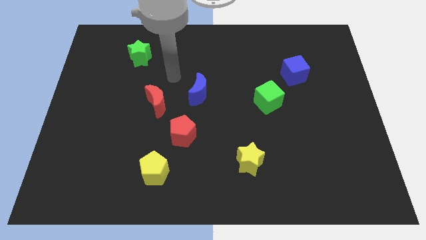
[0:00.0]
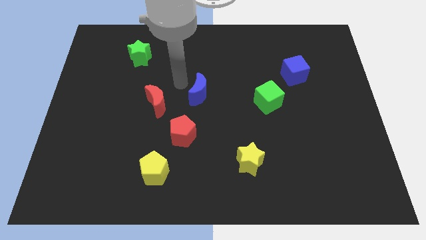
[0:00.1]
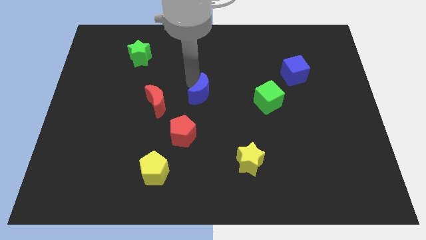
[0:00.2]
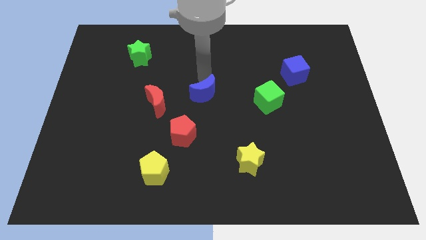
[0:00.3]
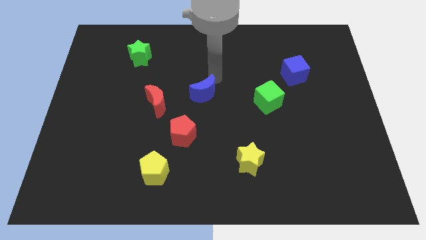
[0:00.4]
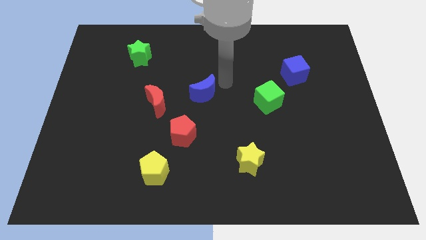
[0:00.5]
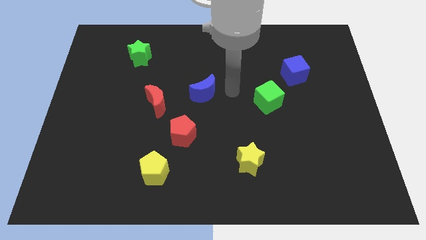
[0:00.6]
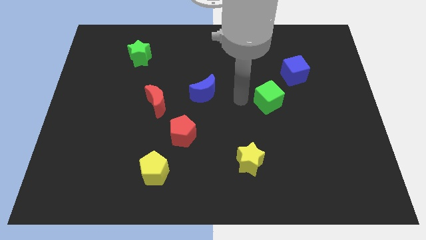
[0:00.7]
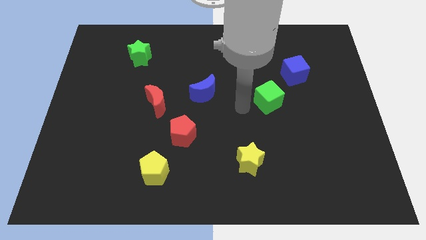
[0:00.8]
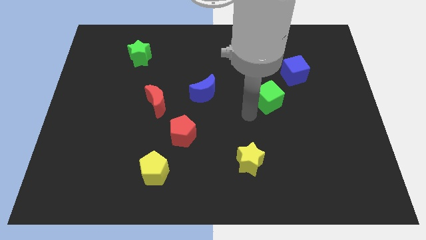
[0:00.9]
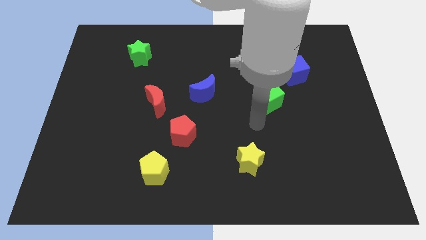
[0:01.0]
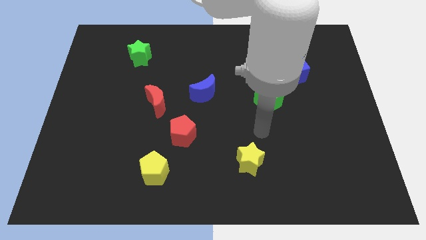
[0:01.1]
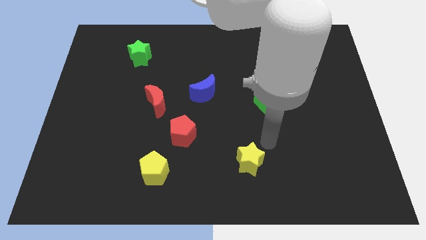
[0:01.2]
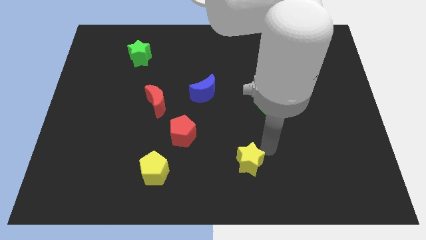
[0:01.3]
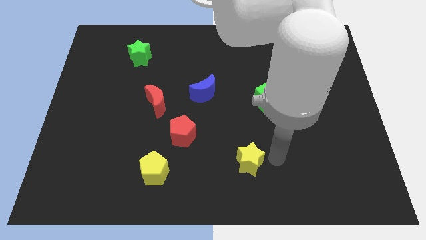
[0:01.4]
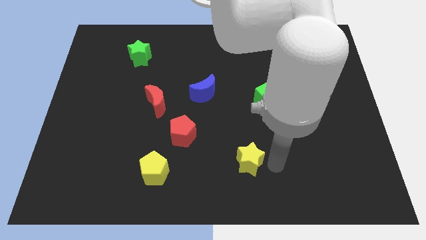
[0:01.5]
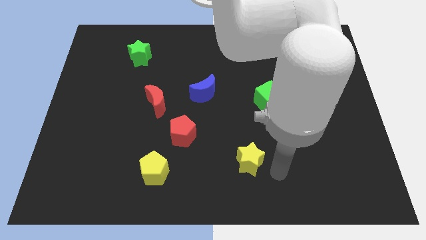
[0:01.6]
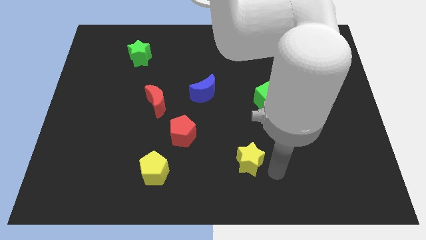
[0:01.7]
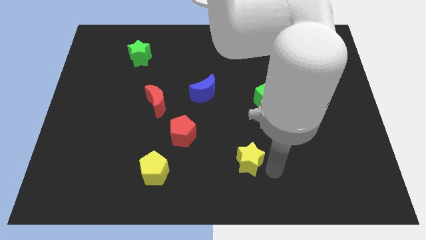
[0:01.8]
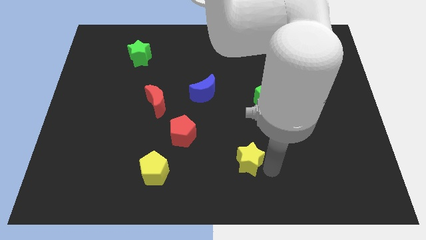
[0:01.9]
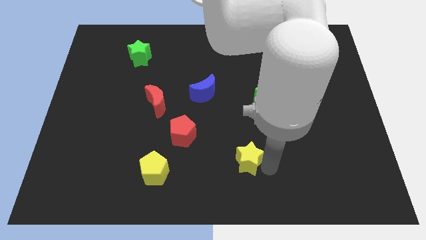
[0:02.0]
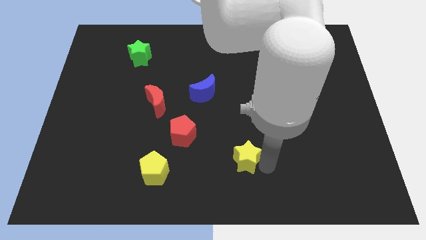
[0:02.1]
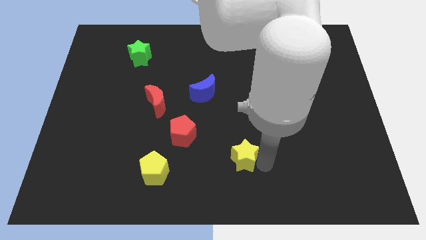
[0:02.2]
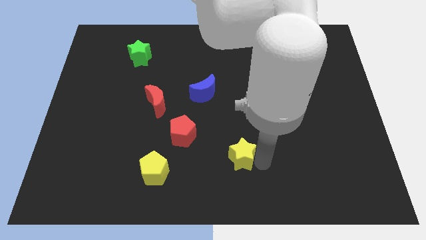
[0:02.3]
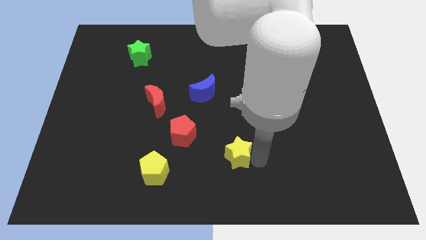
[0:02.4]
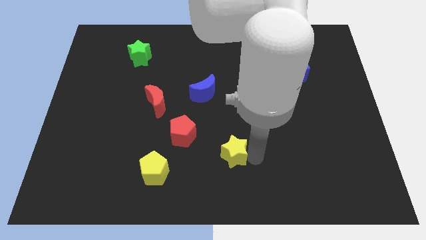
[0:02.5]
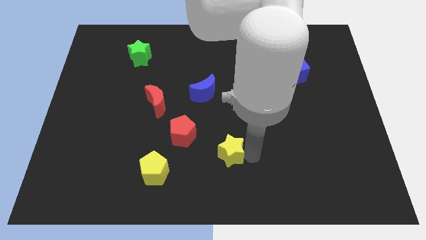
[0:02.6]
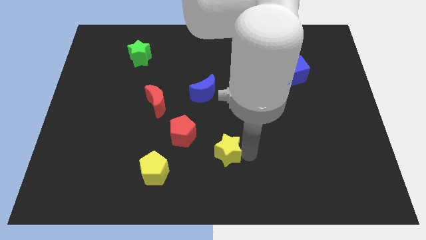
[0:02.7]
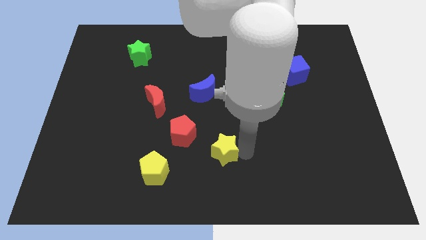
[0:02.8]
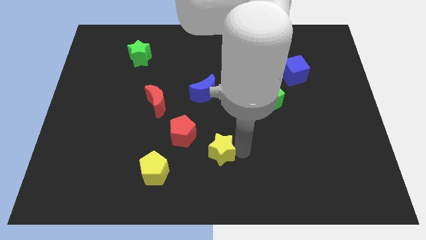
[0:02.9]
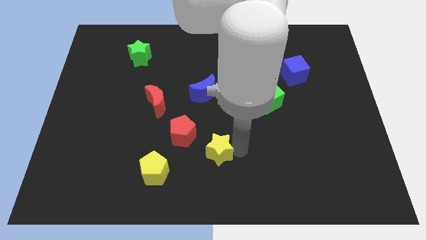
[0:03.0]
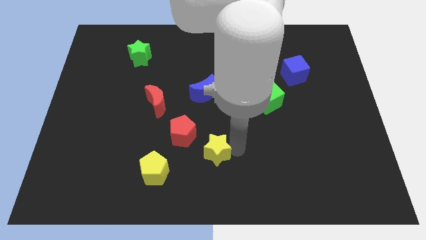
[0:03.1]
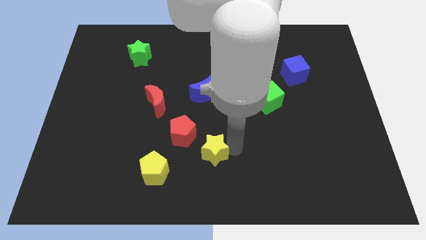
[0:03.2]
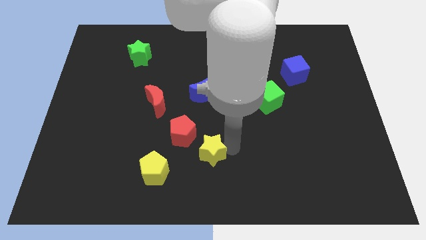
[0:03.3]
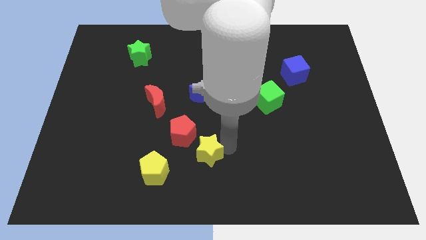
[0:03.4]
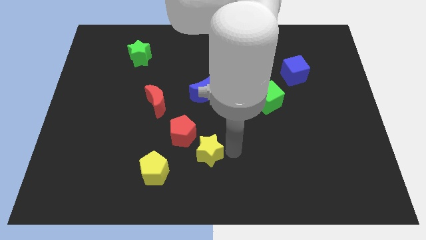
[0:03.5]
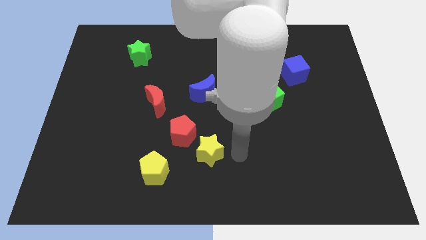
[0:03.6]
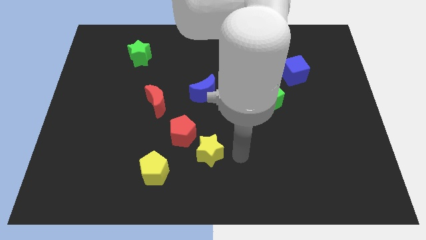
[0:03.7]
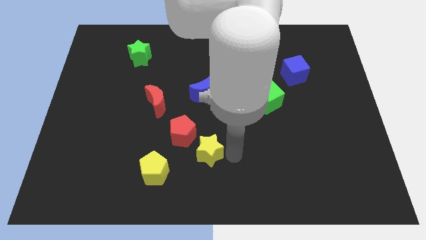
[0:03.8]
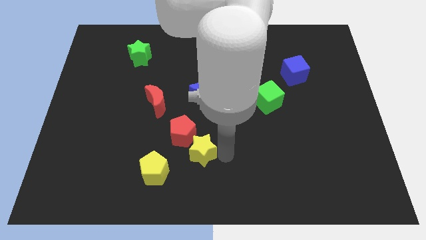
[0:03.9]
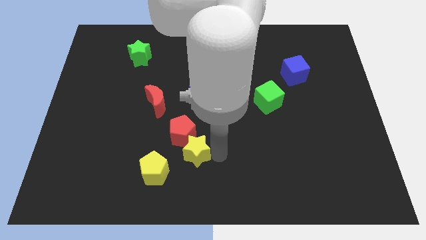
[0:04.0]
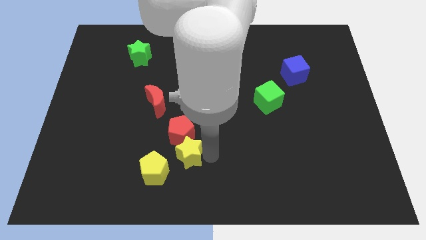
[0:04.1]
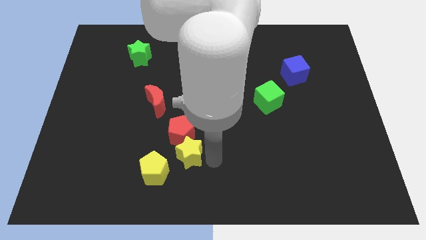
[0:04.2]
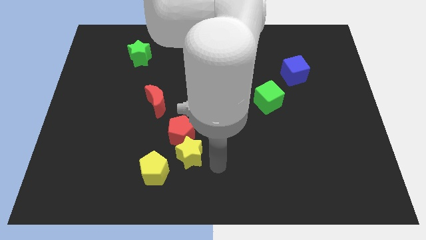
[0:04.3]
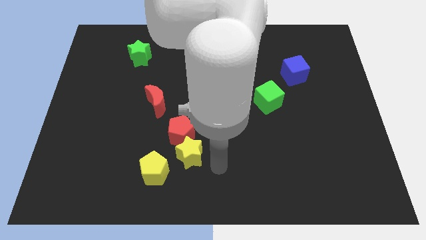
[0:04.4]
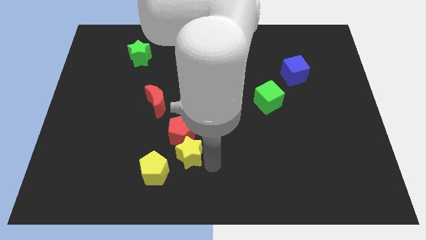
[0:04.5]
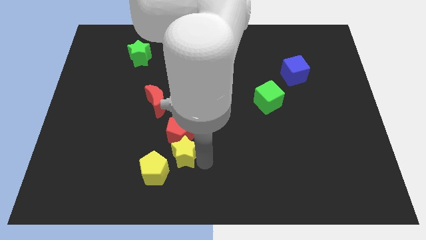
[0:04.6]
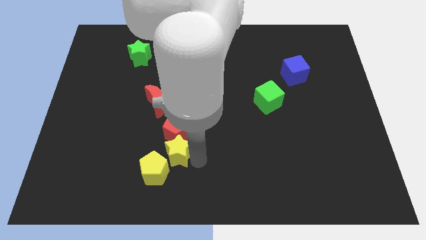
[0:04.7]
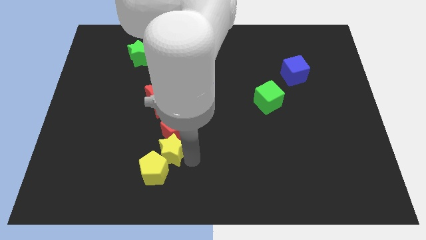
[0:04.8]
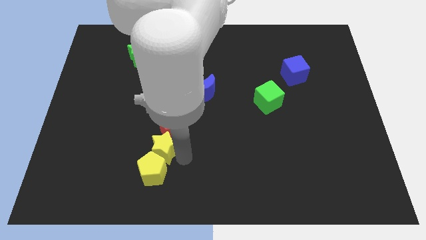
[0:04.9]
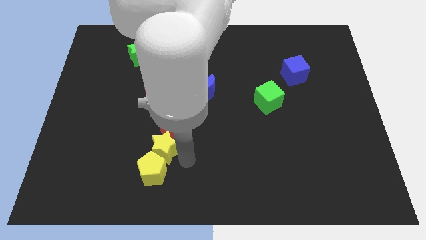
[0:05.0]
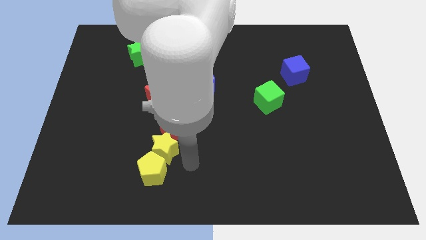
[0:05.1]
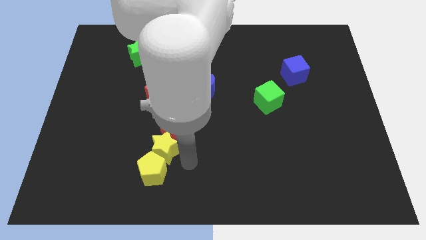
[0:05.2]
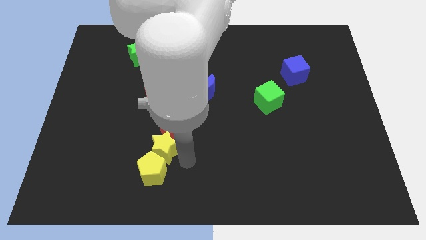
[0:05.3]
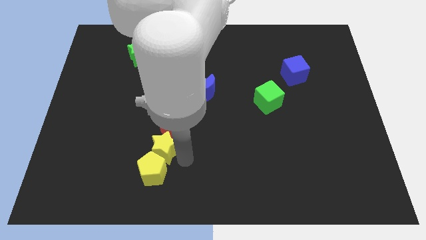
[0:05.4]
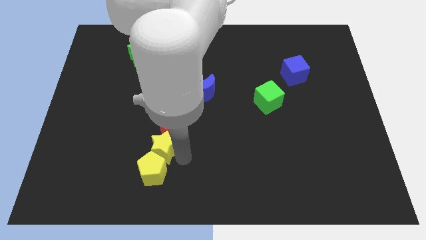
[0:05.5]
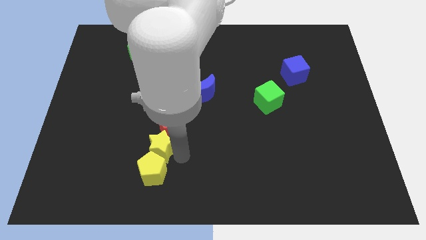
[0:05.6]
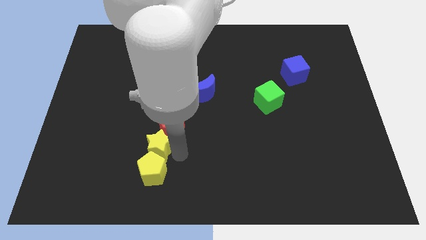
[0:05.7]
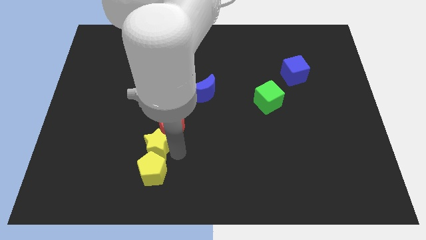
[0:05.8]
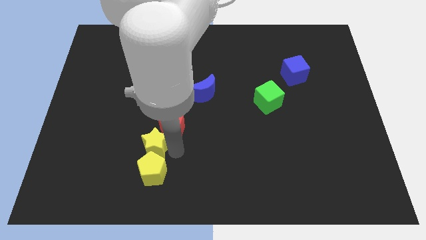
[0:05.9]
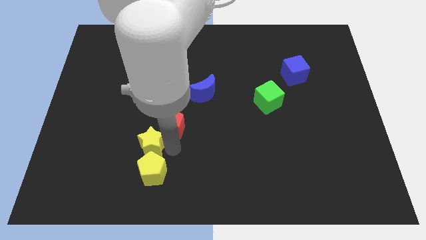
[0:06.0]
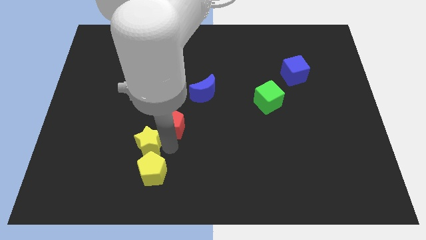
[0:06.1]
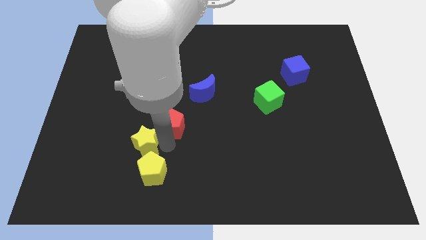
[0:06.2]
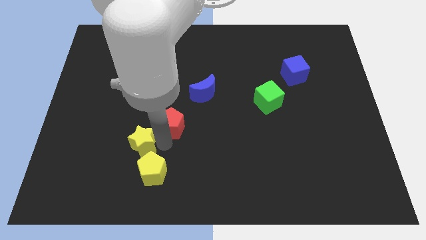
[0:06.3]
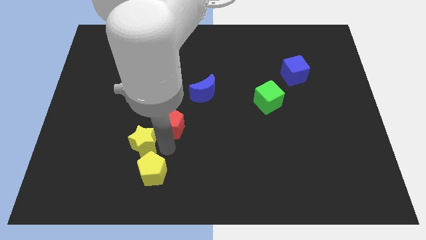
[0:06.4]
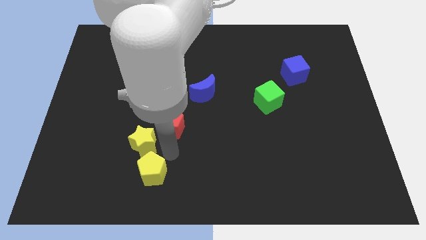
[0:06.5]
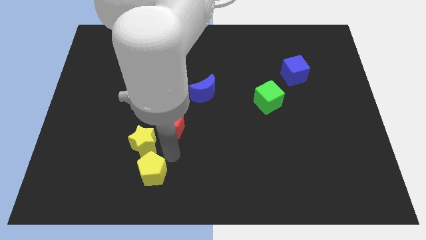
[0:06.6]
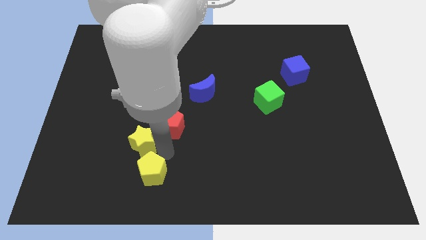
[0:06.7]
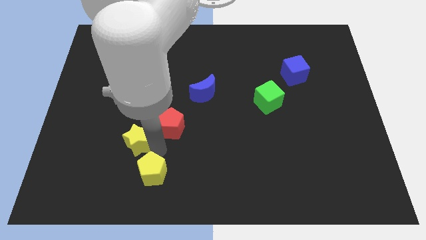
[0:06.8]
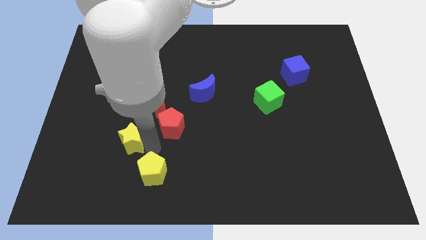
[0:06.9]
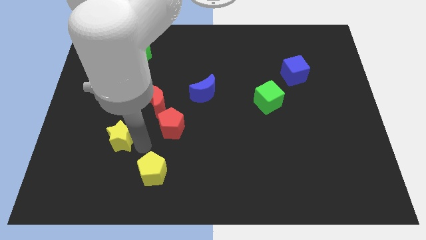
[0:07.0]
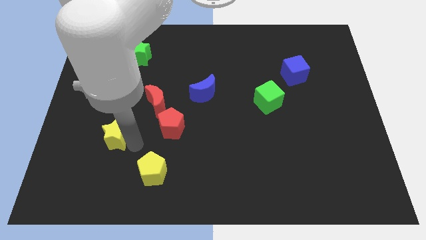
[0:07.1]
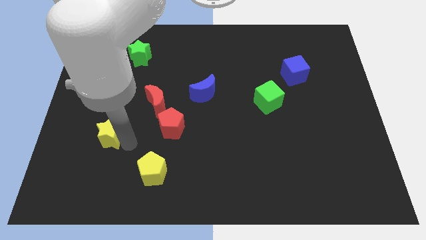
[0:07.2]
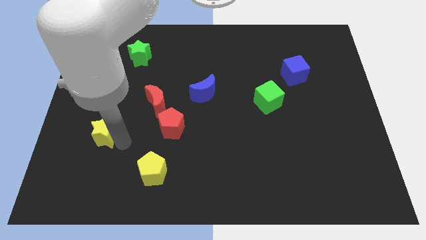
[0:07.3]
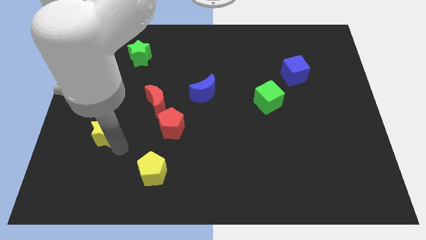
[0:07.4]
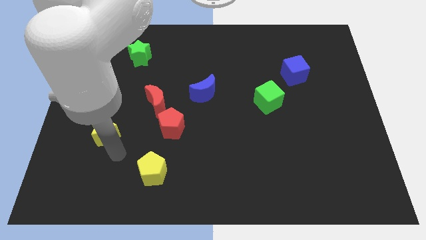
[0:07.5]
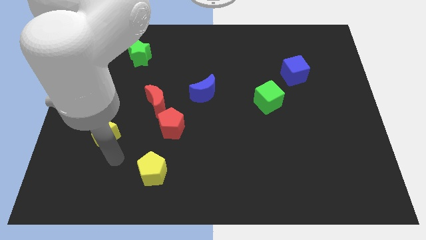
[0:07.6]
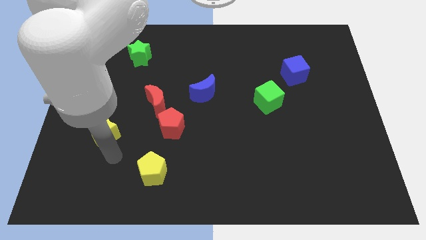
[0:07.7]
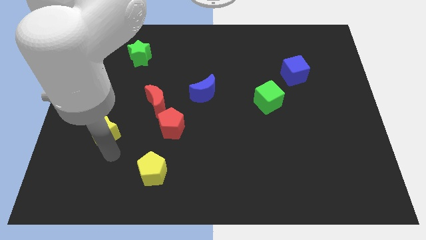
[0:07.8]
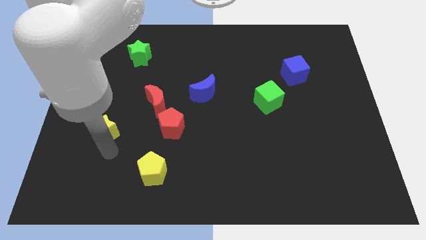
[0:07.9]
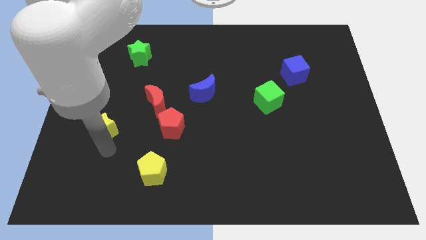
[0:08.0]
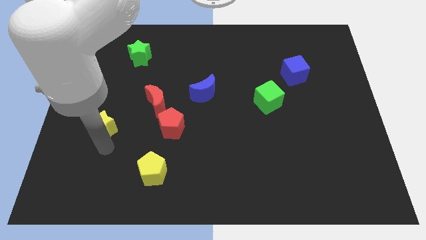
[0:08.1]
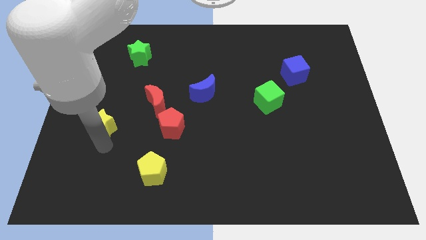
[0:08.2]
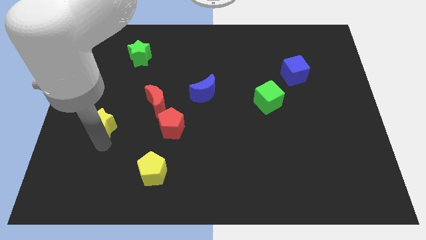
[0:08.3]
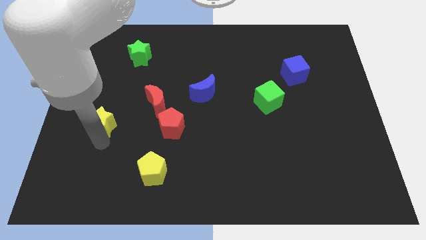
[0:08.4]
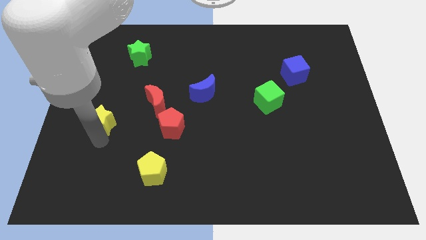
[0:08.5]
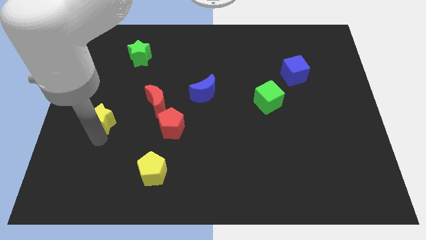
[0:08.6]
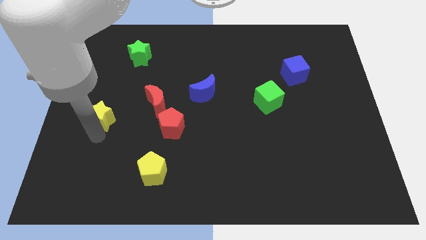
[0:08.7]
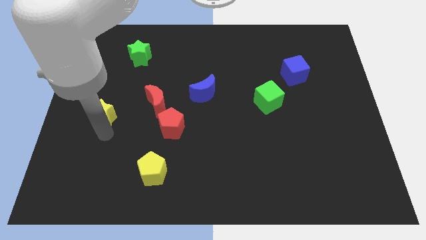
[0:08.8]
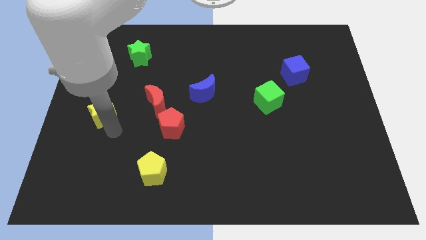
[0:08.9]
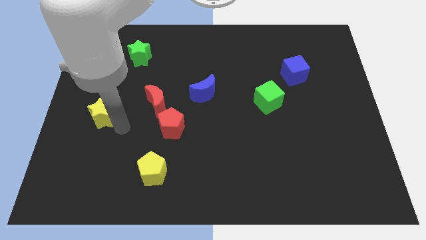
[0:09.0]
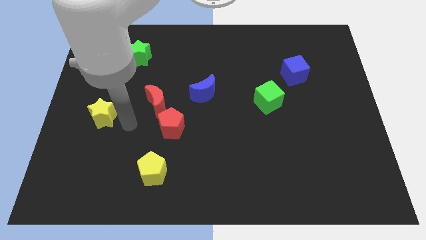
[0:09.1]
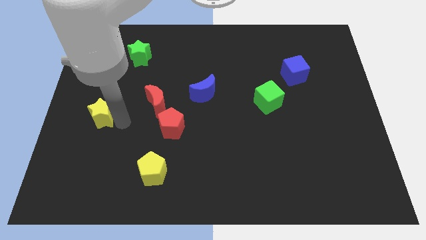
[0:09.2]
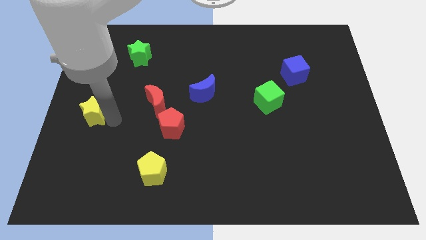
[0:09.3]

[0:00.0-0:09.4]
put the yellow star to the center left
